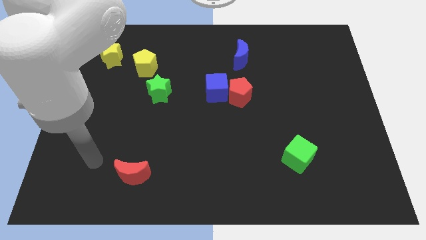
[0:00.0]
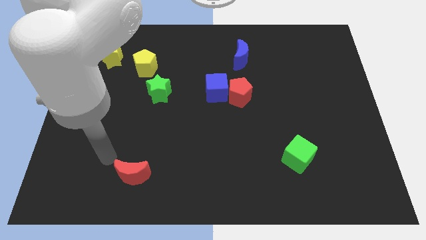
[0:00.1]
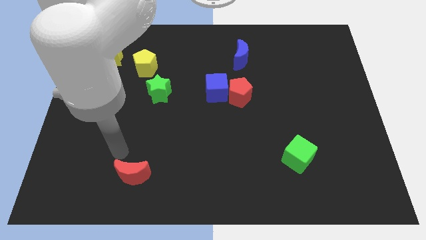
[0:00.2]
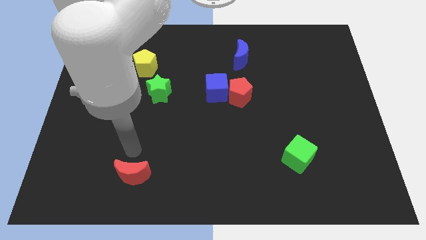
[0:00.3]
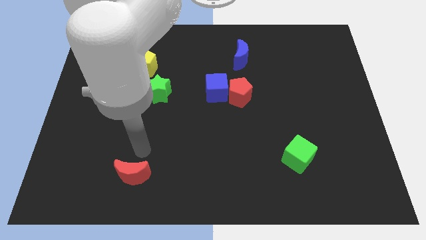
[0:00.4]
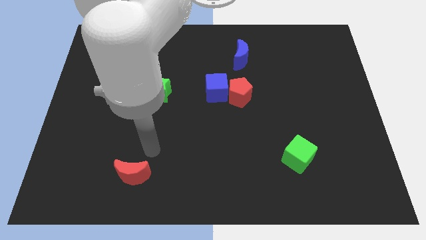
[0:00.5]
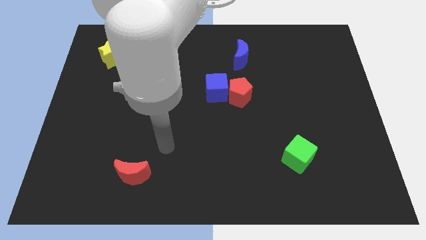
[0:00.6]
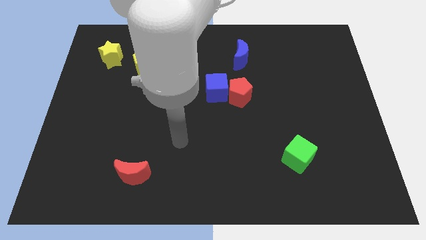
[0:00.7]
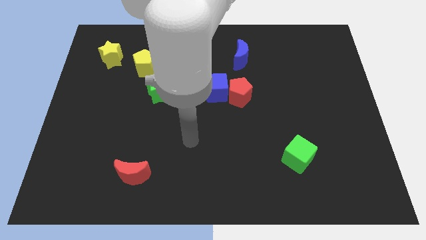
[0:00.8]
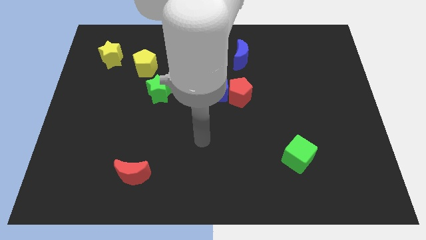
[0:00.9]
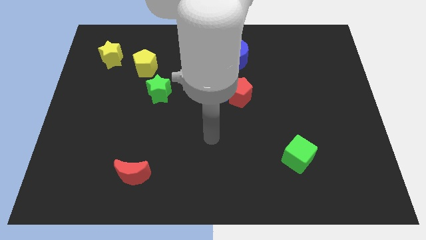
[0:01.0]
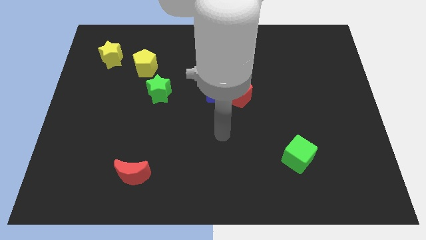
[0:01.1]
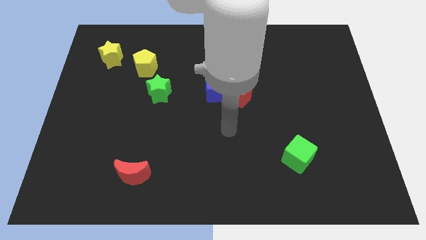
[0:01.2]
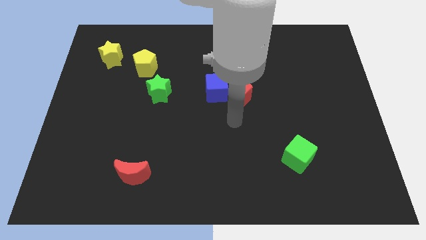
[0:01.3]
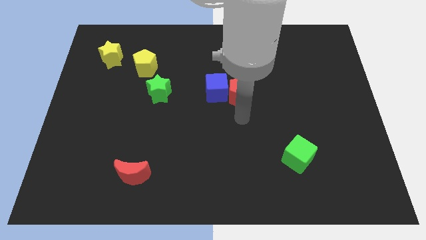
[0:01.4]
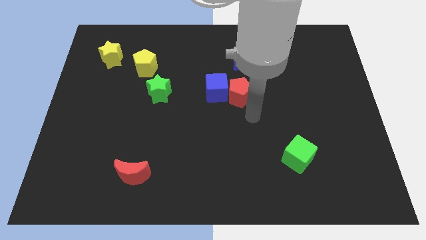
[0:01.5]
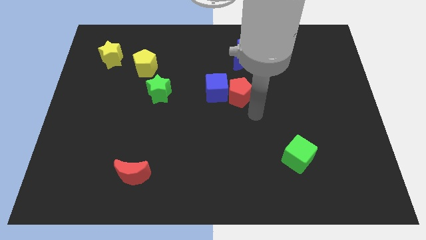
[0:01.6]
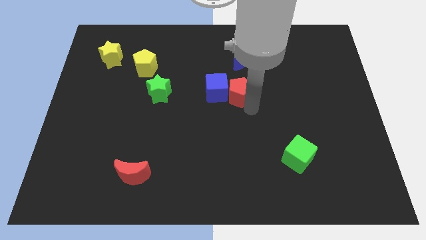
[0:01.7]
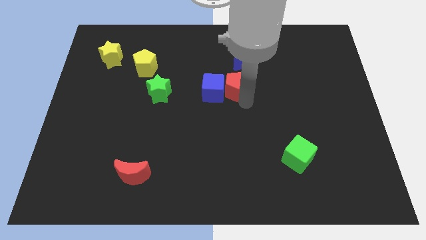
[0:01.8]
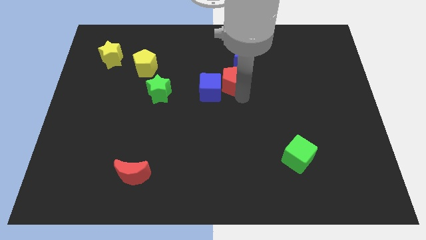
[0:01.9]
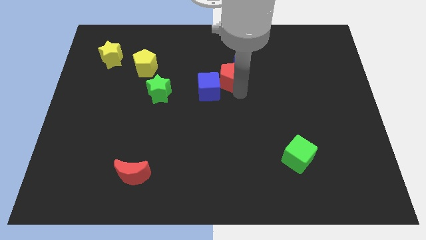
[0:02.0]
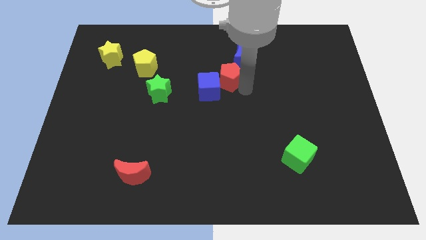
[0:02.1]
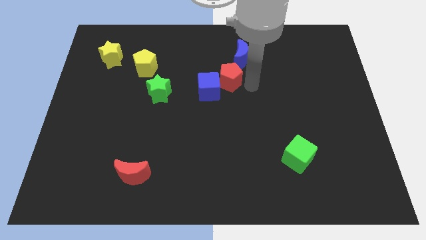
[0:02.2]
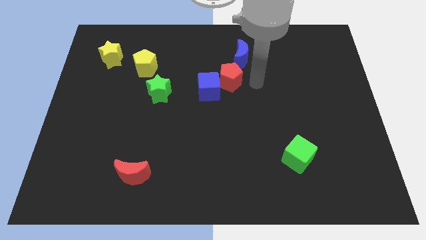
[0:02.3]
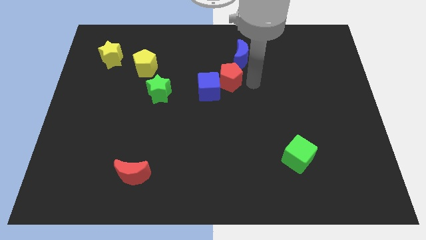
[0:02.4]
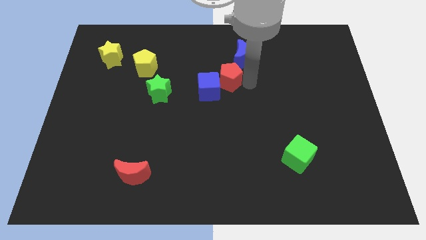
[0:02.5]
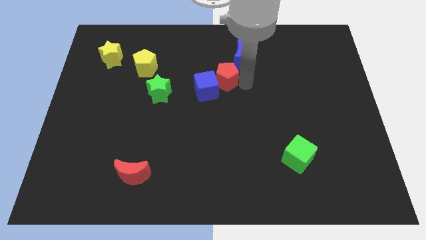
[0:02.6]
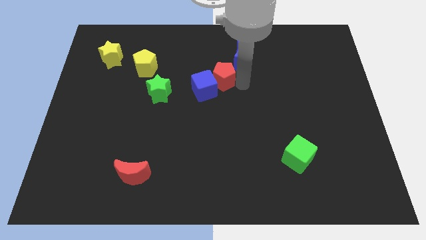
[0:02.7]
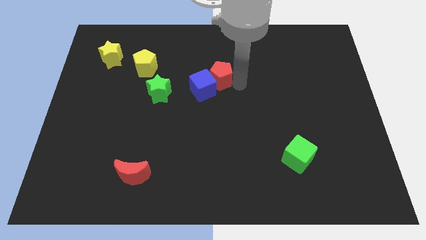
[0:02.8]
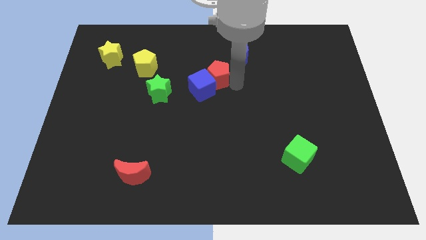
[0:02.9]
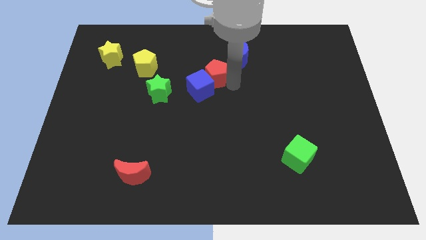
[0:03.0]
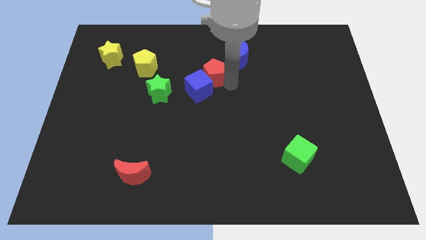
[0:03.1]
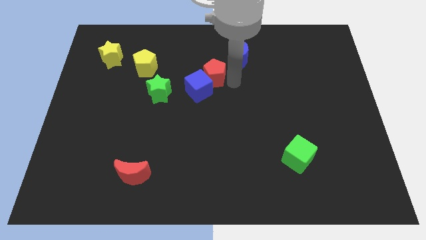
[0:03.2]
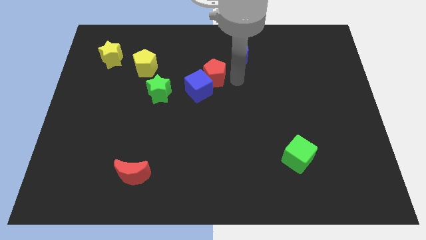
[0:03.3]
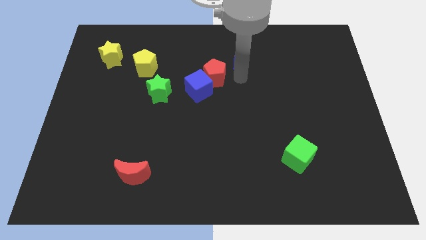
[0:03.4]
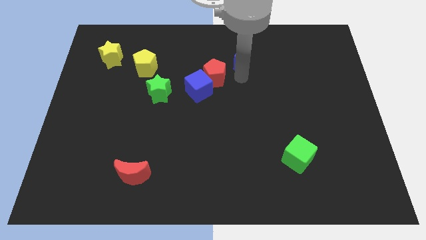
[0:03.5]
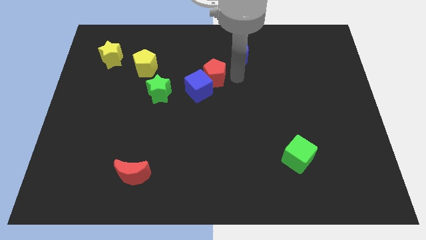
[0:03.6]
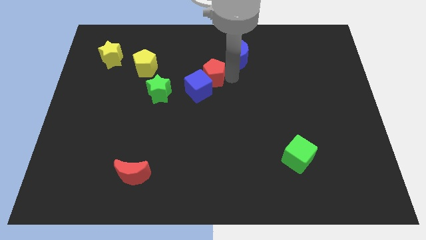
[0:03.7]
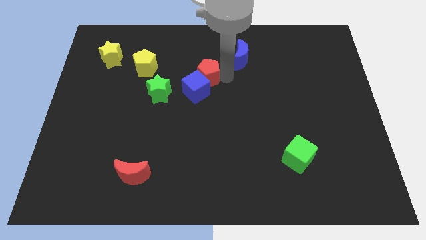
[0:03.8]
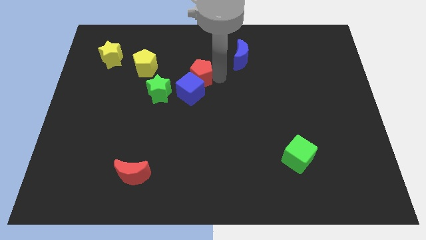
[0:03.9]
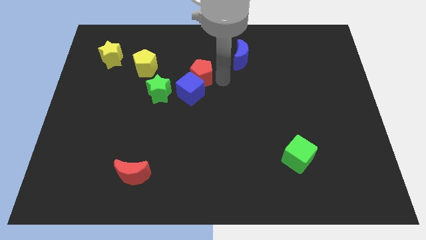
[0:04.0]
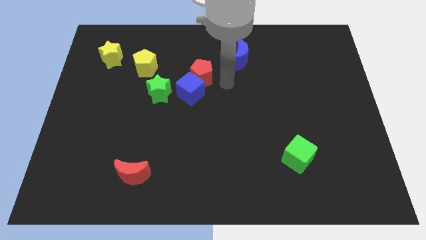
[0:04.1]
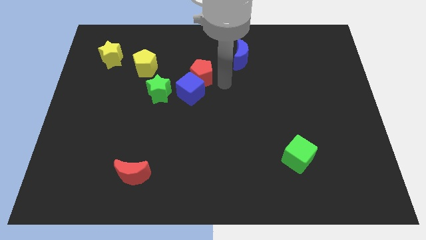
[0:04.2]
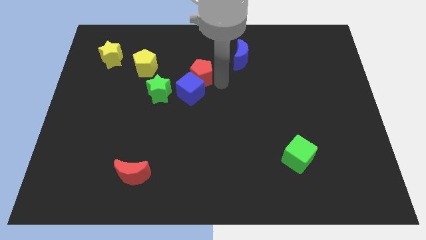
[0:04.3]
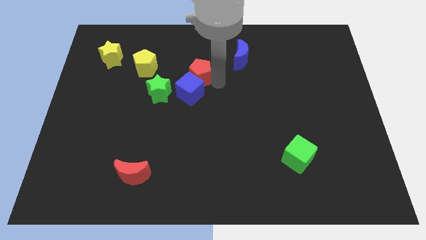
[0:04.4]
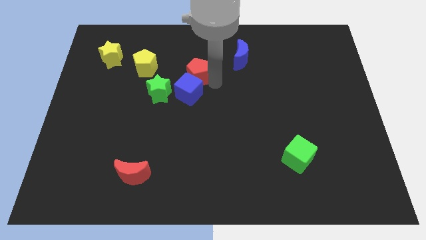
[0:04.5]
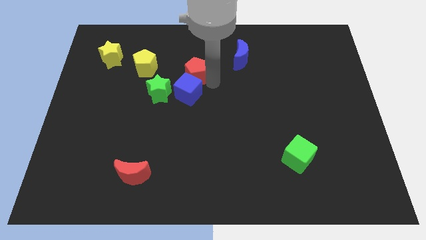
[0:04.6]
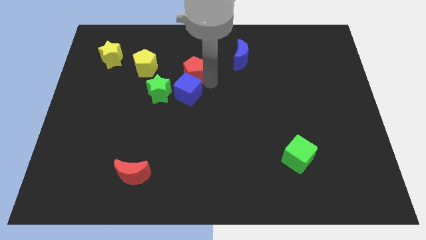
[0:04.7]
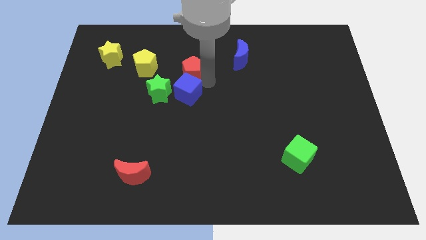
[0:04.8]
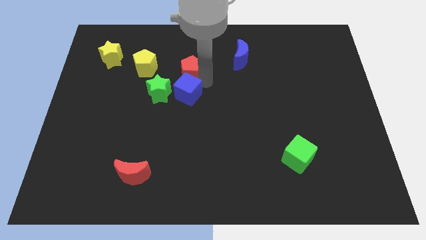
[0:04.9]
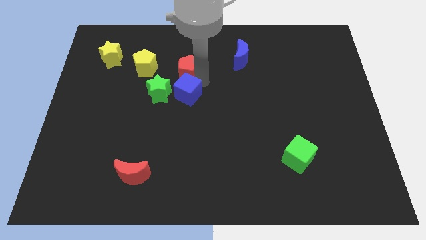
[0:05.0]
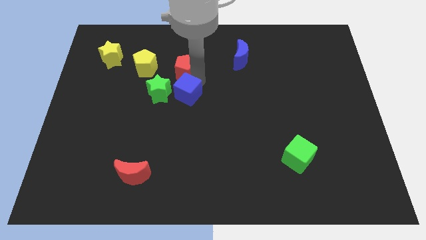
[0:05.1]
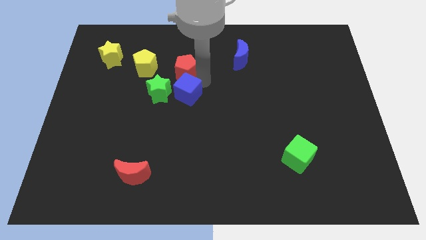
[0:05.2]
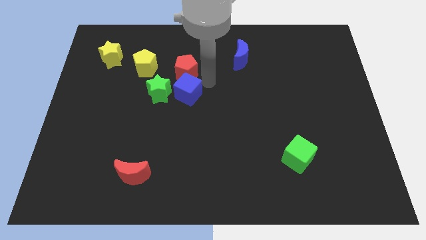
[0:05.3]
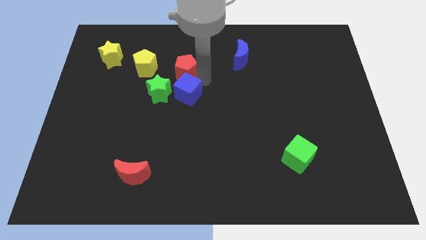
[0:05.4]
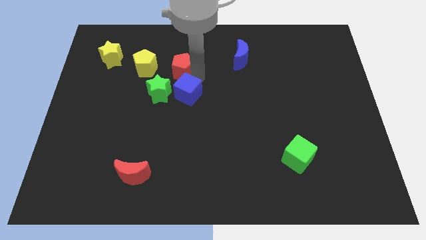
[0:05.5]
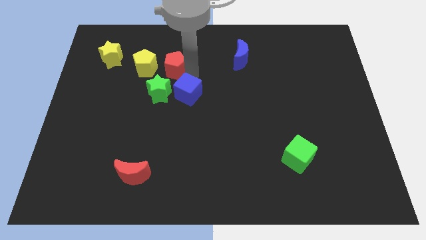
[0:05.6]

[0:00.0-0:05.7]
push the red pentagon to the top of the green star

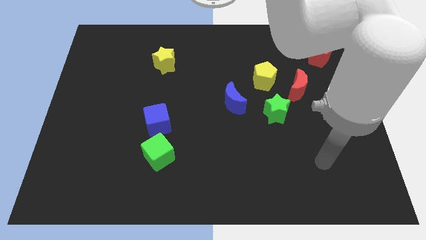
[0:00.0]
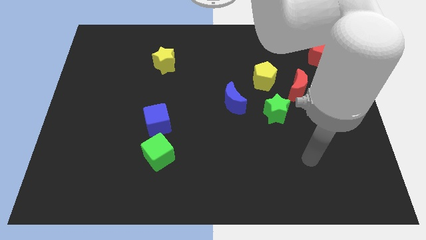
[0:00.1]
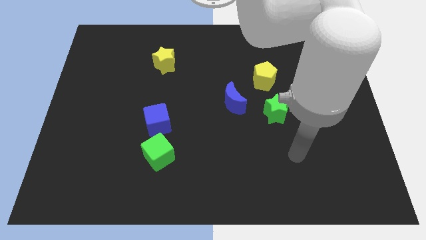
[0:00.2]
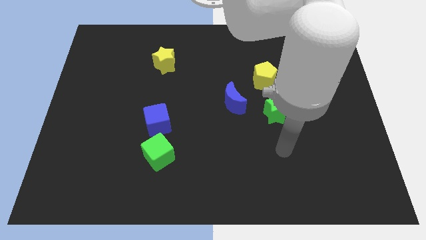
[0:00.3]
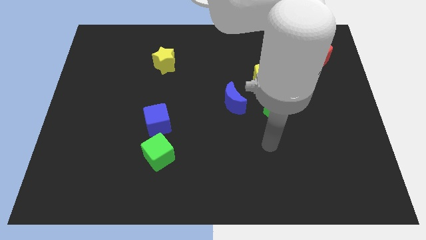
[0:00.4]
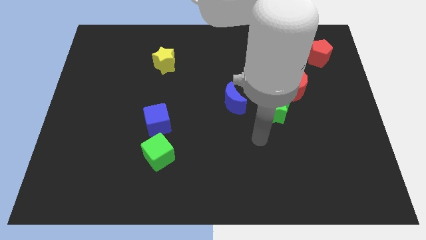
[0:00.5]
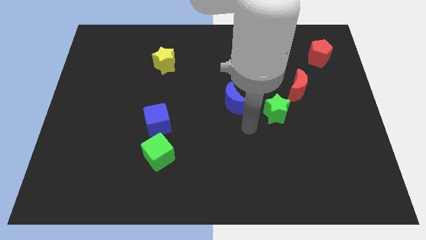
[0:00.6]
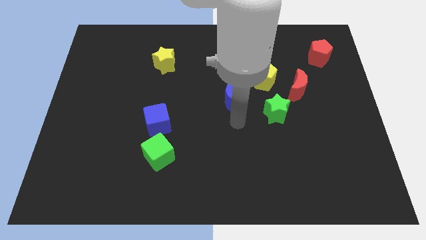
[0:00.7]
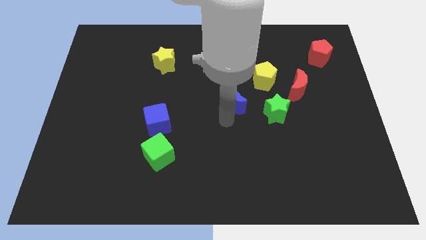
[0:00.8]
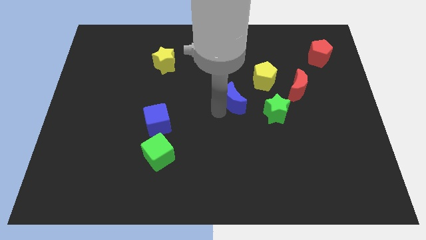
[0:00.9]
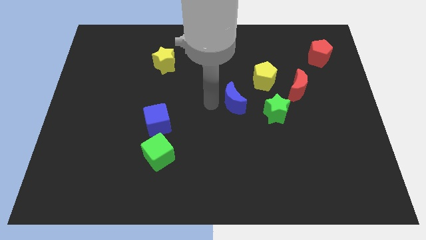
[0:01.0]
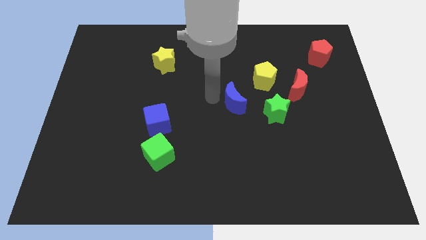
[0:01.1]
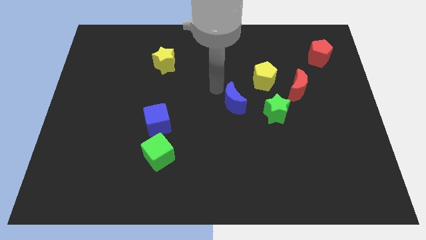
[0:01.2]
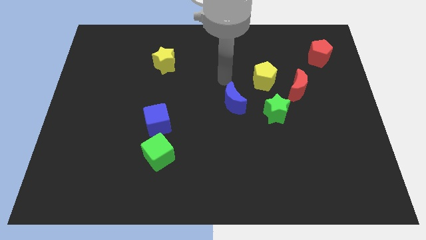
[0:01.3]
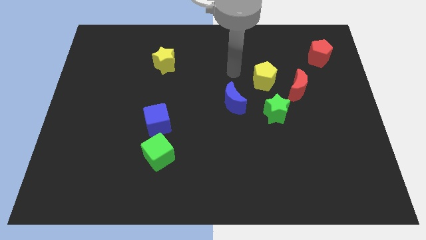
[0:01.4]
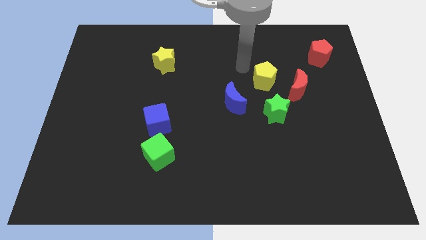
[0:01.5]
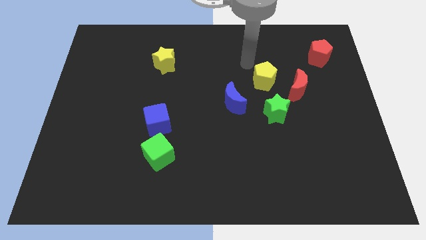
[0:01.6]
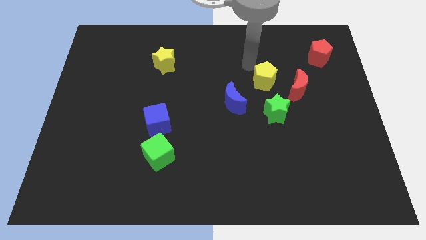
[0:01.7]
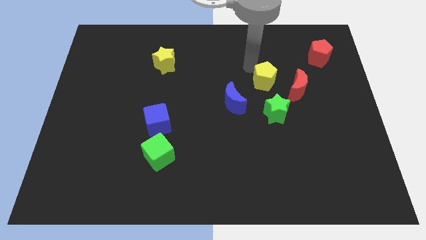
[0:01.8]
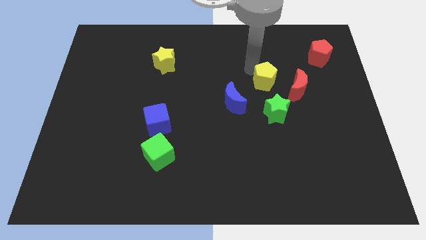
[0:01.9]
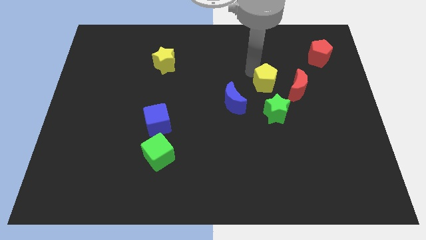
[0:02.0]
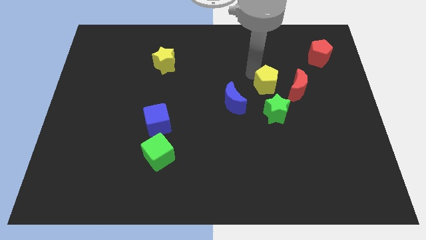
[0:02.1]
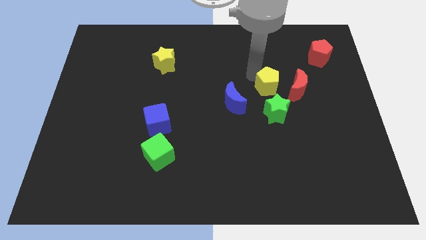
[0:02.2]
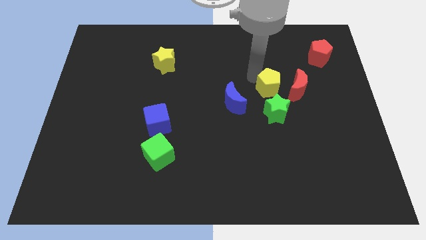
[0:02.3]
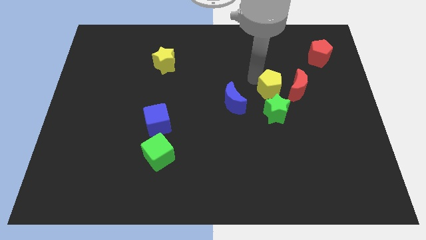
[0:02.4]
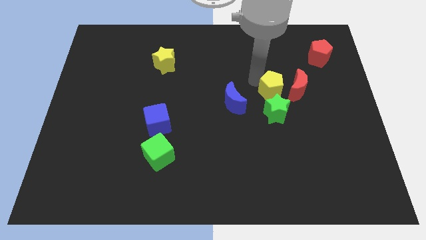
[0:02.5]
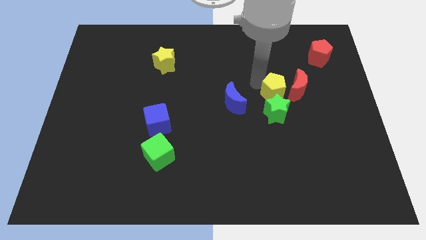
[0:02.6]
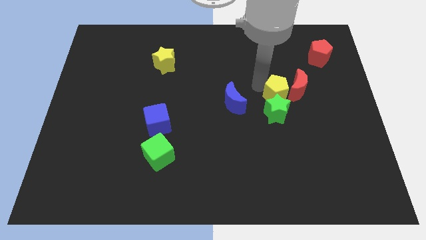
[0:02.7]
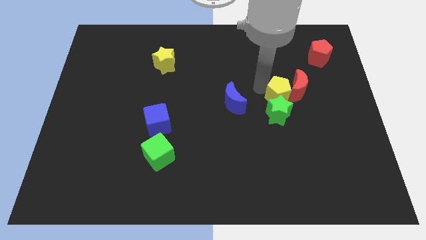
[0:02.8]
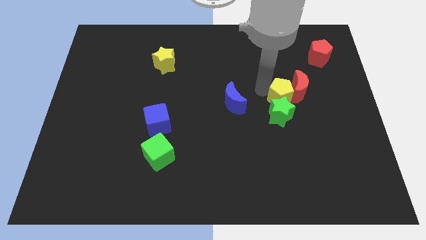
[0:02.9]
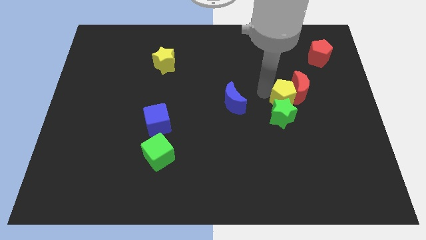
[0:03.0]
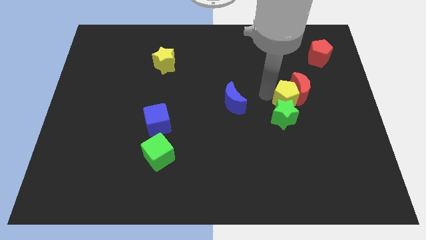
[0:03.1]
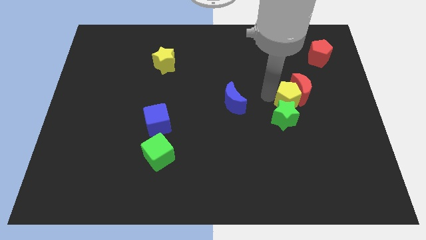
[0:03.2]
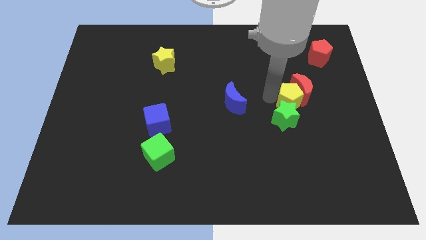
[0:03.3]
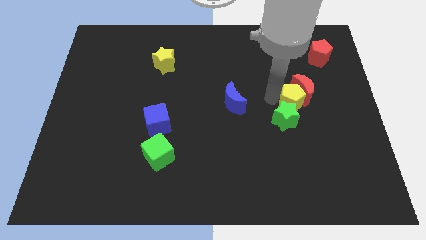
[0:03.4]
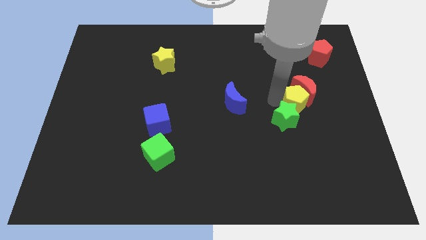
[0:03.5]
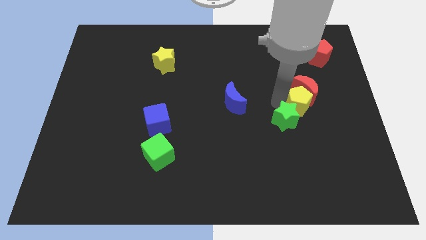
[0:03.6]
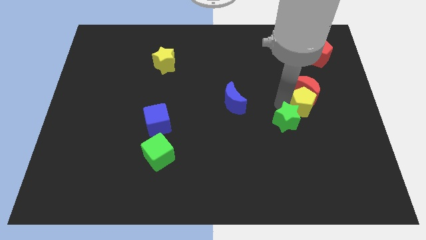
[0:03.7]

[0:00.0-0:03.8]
put the yellow pentagon to the bottom right side of the red moon
